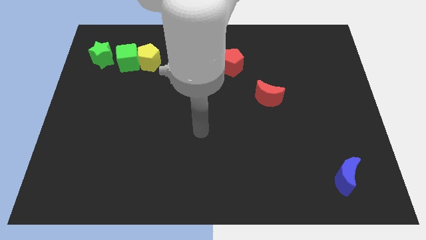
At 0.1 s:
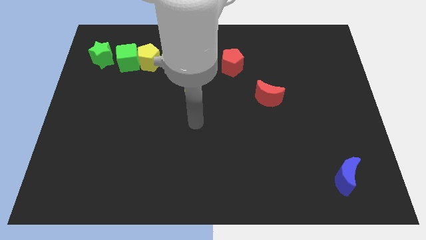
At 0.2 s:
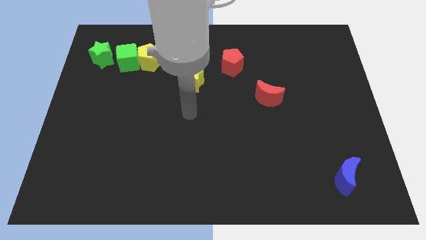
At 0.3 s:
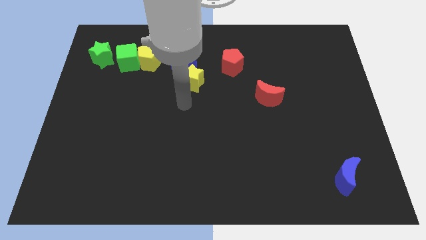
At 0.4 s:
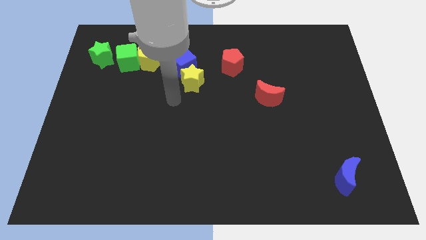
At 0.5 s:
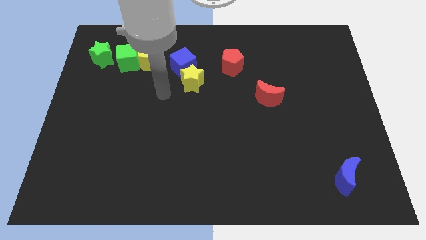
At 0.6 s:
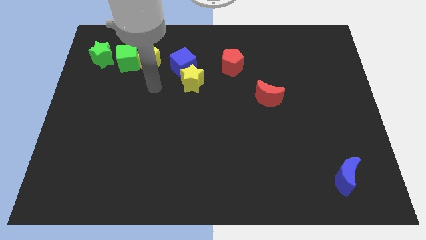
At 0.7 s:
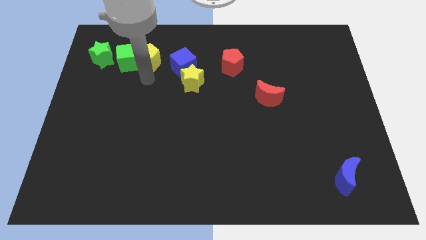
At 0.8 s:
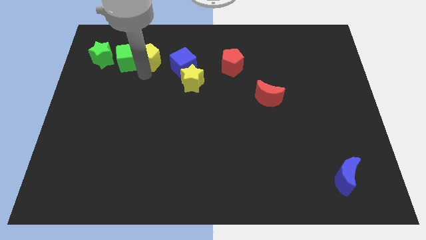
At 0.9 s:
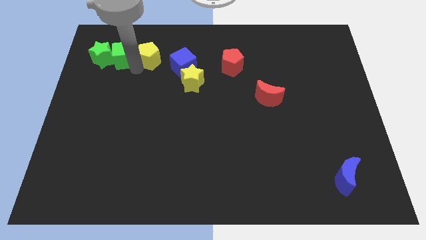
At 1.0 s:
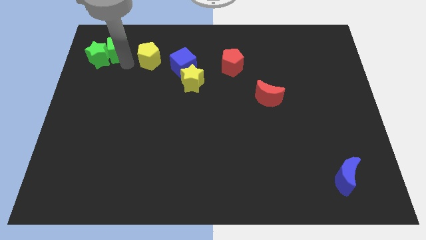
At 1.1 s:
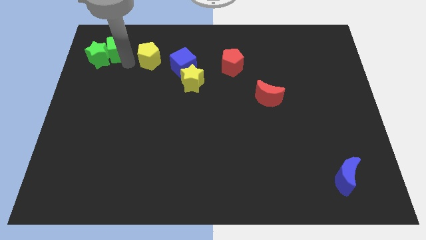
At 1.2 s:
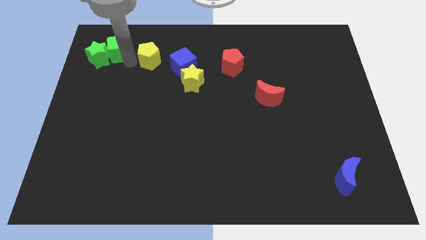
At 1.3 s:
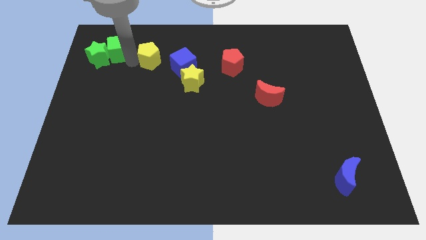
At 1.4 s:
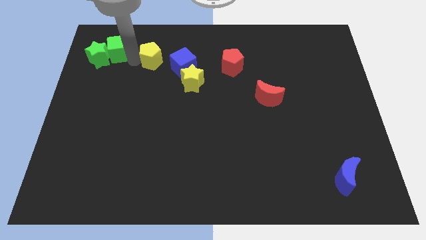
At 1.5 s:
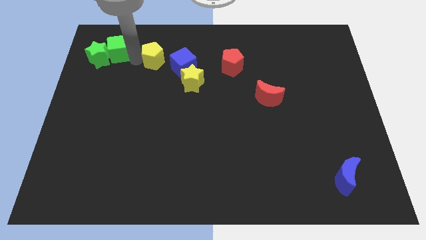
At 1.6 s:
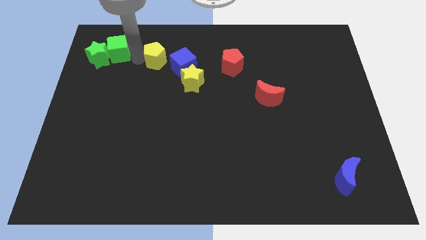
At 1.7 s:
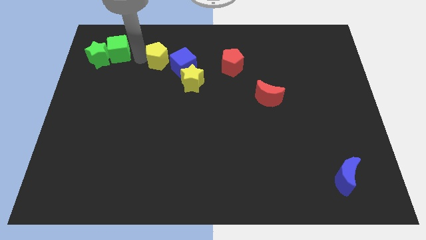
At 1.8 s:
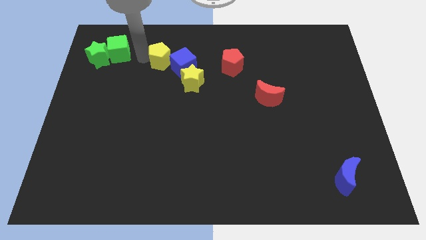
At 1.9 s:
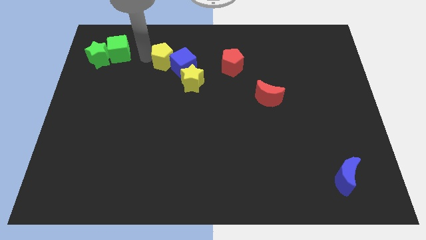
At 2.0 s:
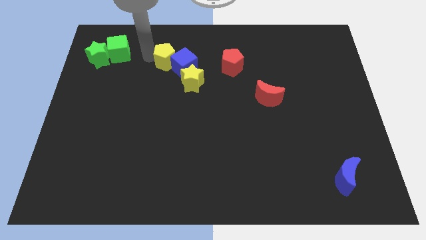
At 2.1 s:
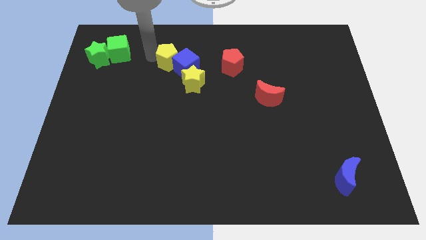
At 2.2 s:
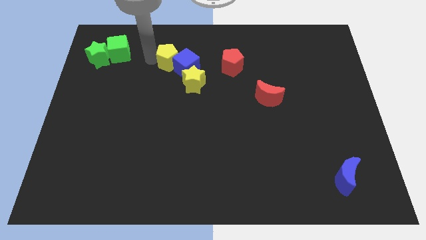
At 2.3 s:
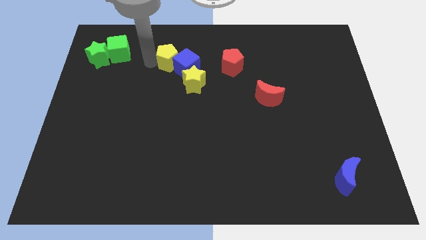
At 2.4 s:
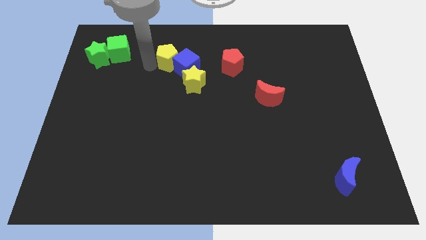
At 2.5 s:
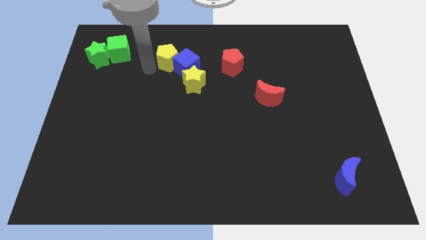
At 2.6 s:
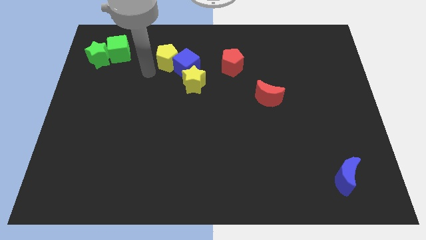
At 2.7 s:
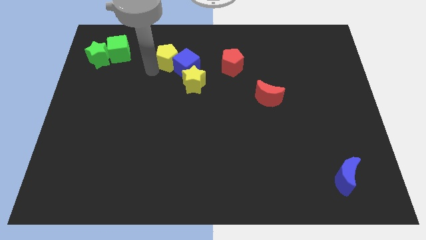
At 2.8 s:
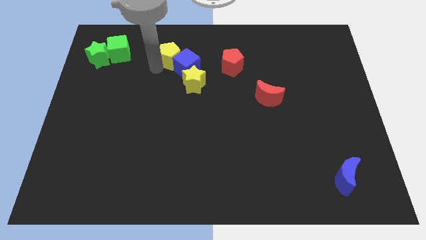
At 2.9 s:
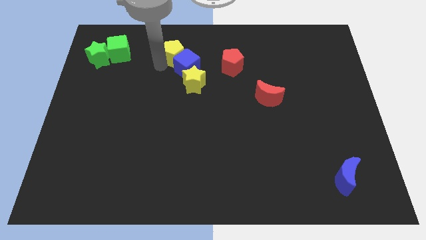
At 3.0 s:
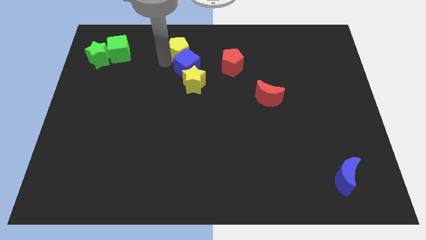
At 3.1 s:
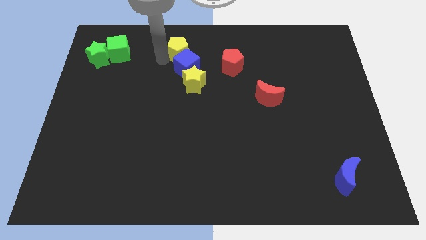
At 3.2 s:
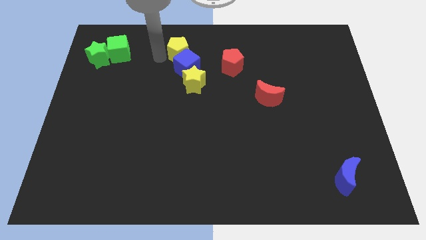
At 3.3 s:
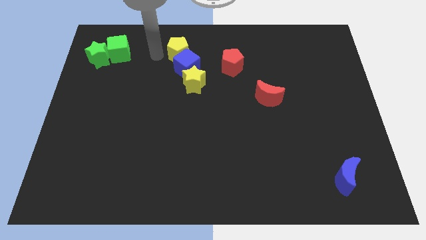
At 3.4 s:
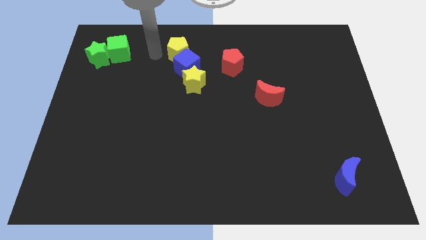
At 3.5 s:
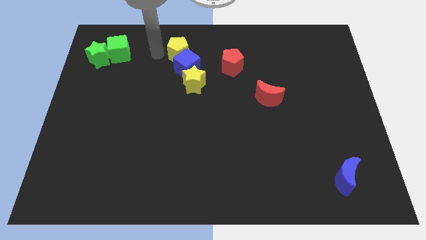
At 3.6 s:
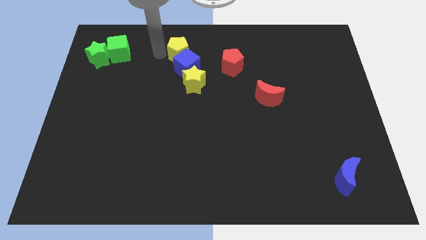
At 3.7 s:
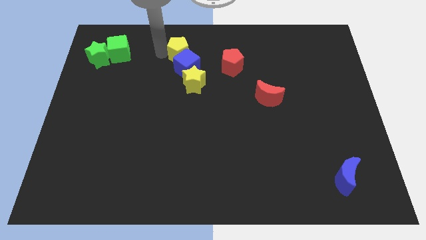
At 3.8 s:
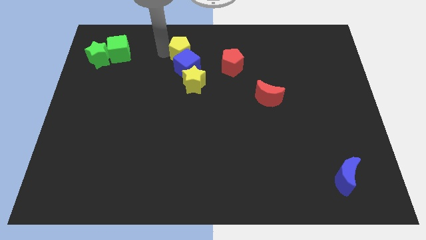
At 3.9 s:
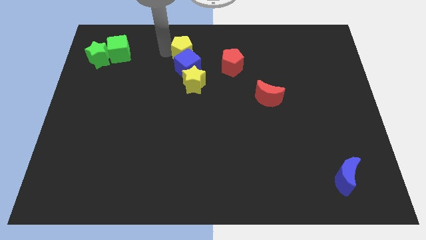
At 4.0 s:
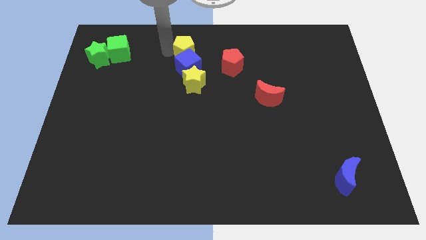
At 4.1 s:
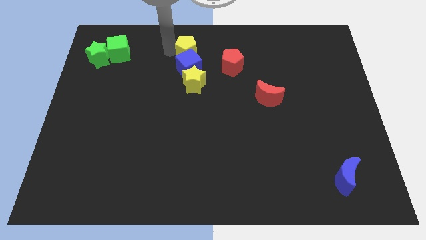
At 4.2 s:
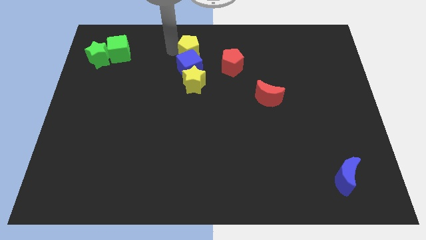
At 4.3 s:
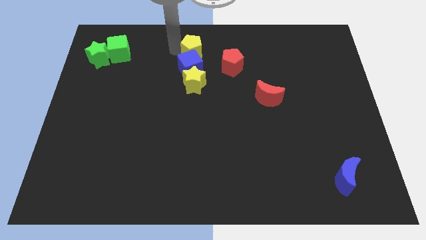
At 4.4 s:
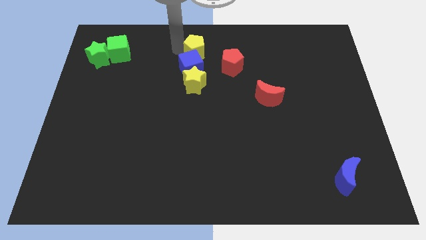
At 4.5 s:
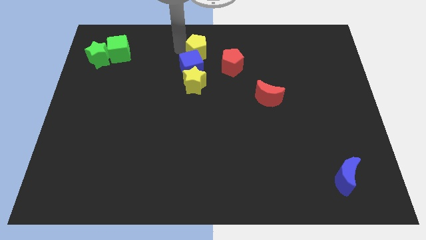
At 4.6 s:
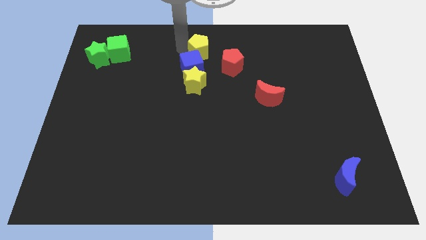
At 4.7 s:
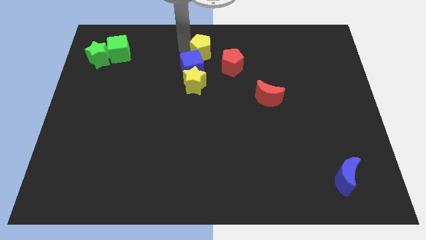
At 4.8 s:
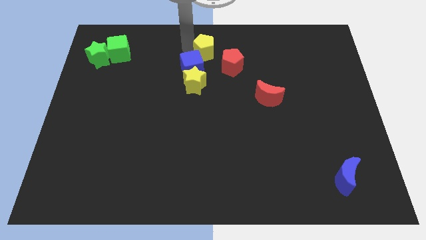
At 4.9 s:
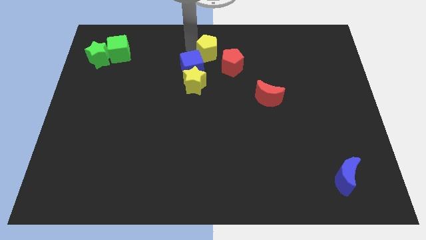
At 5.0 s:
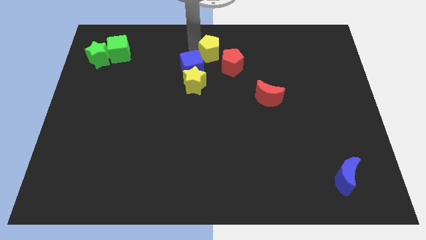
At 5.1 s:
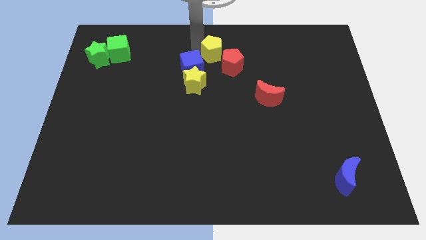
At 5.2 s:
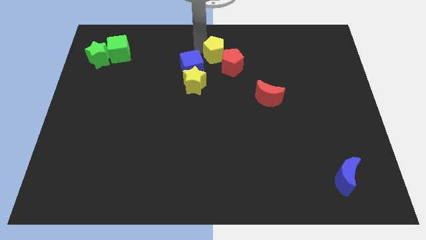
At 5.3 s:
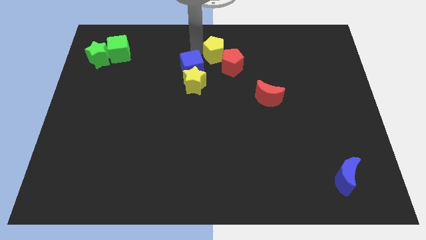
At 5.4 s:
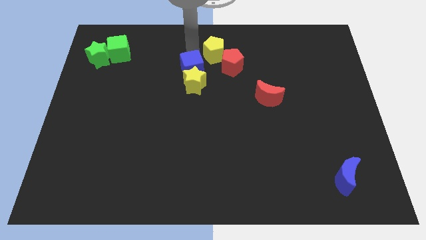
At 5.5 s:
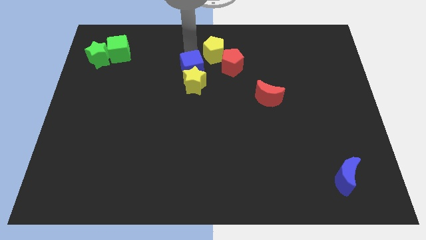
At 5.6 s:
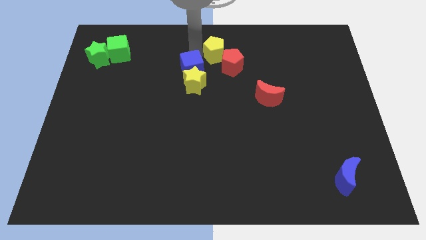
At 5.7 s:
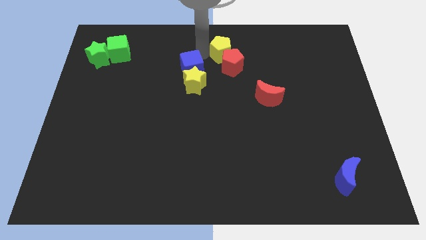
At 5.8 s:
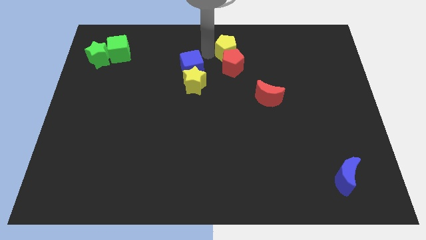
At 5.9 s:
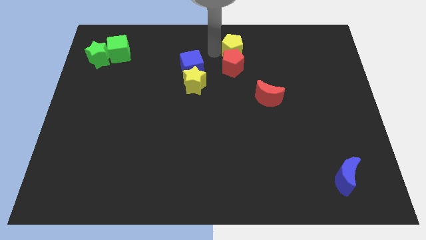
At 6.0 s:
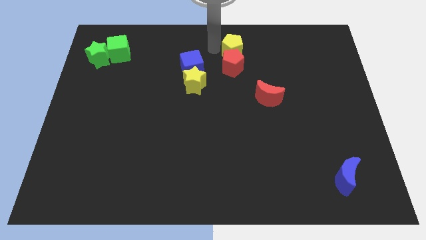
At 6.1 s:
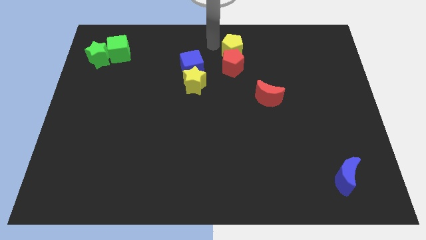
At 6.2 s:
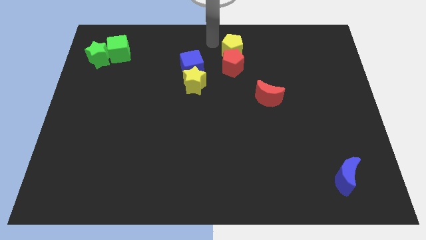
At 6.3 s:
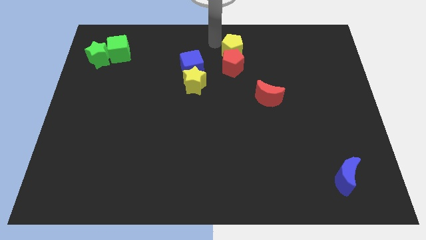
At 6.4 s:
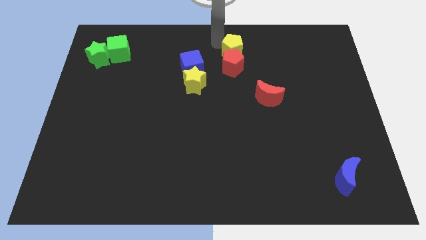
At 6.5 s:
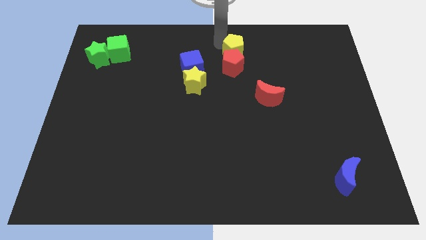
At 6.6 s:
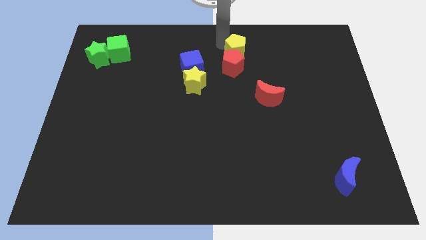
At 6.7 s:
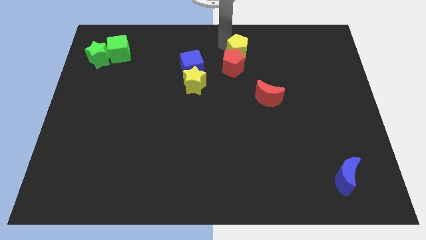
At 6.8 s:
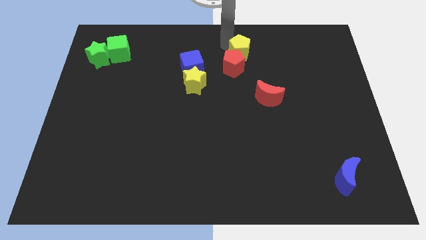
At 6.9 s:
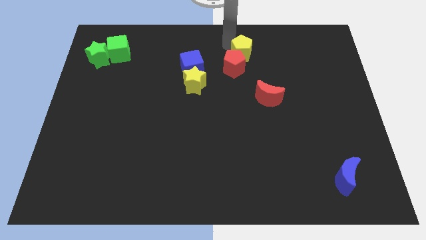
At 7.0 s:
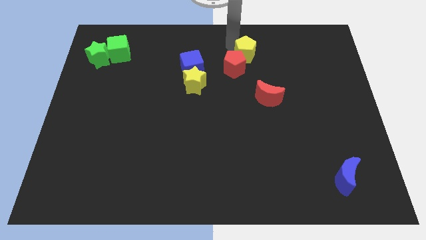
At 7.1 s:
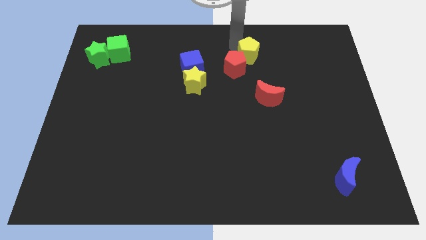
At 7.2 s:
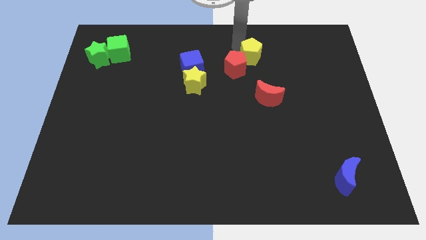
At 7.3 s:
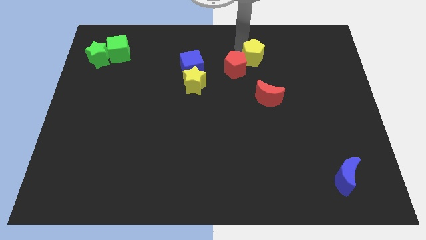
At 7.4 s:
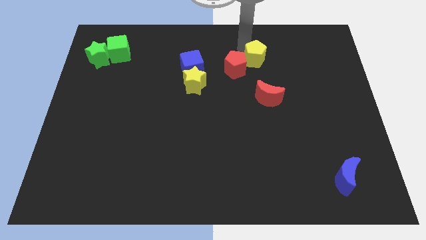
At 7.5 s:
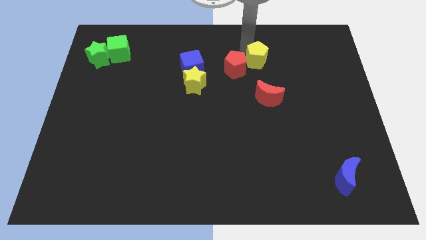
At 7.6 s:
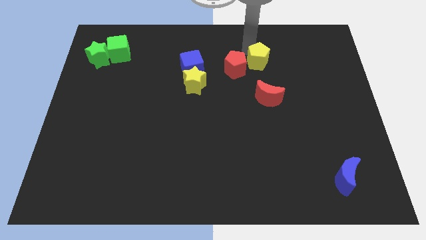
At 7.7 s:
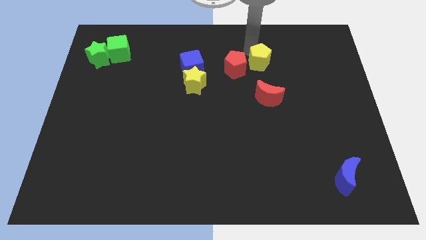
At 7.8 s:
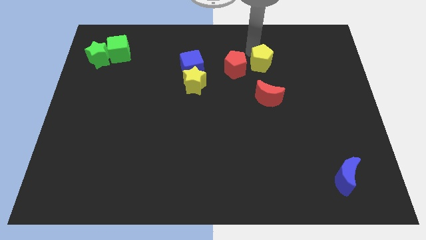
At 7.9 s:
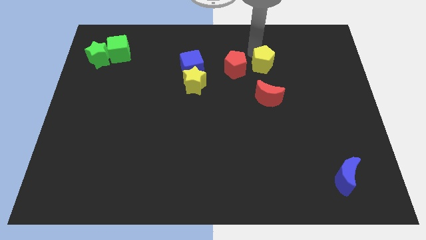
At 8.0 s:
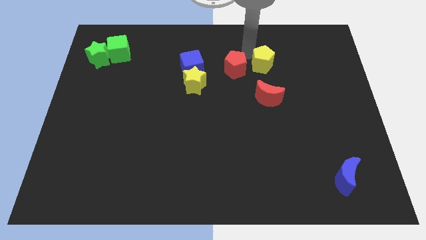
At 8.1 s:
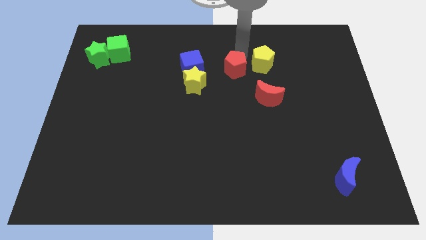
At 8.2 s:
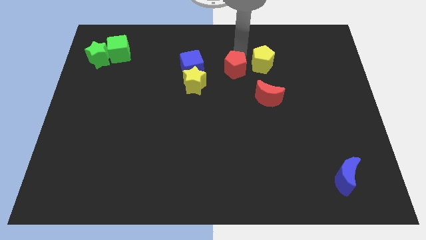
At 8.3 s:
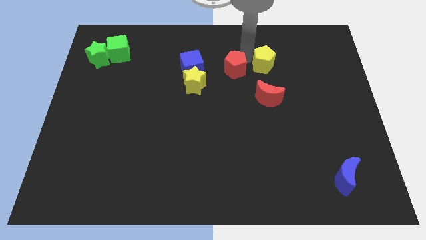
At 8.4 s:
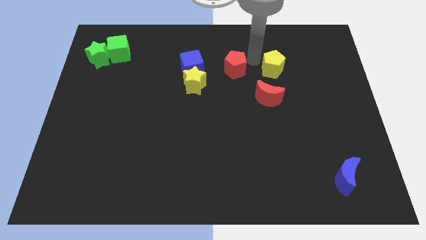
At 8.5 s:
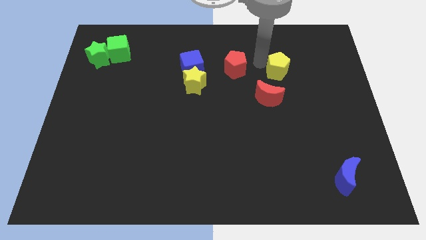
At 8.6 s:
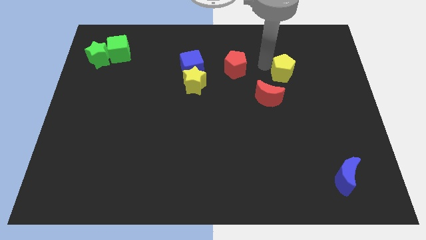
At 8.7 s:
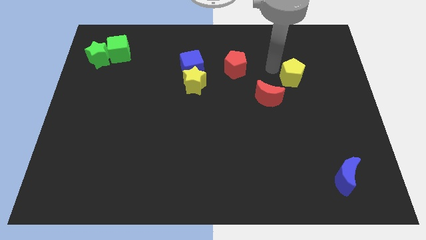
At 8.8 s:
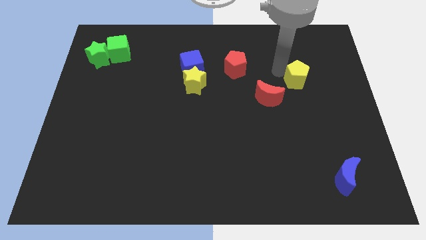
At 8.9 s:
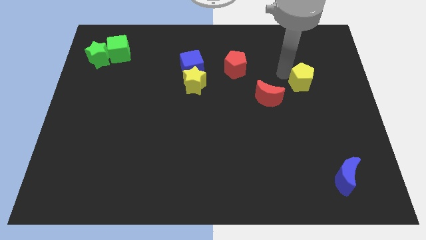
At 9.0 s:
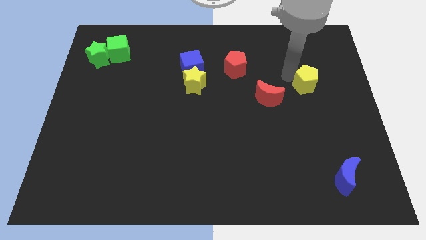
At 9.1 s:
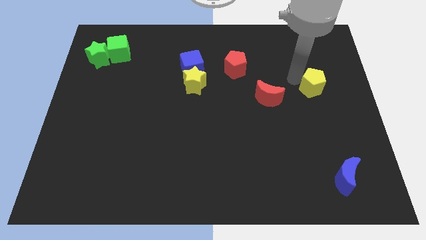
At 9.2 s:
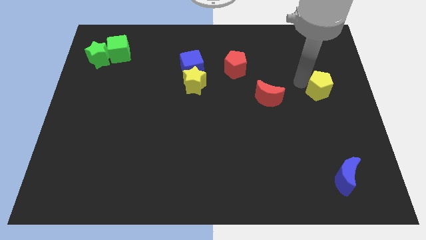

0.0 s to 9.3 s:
put the yellow pentagon to the center right
